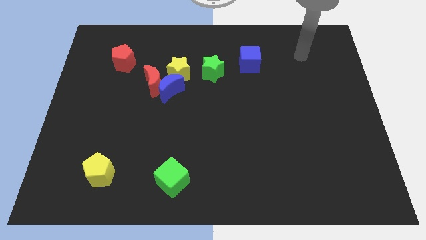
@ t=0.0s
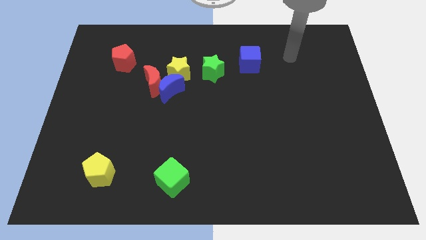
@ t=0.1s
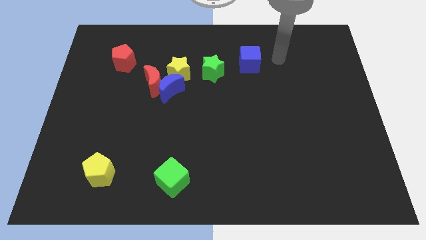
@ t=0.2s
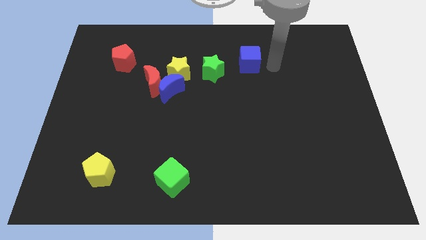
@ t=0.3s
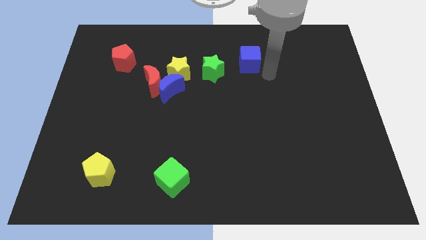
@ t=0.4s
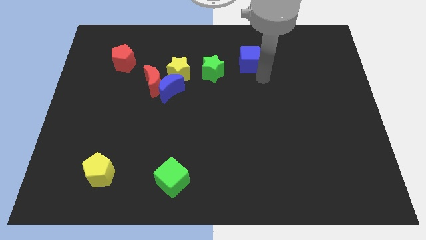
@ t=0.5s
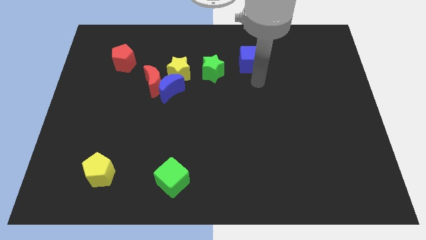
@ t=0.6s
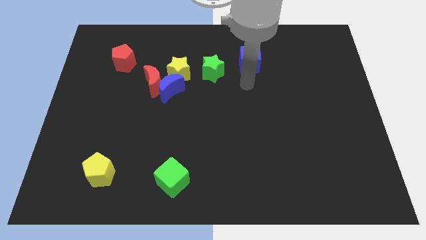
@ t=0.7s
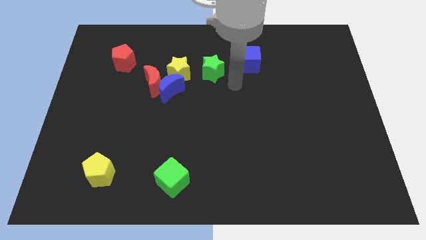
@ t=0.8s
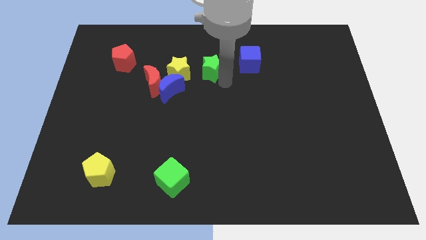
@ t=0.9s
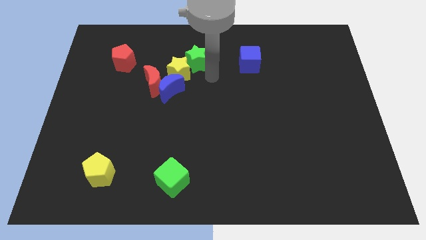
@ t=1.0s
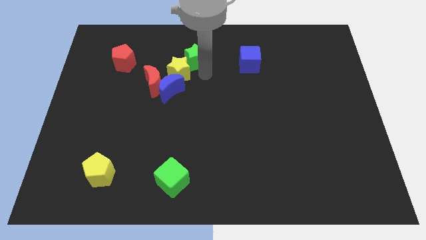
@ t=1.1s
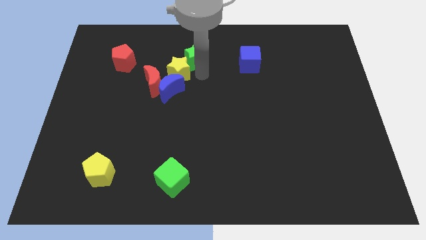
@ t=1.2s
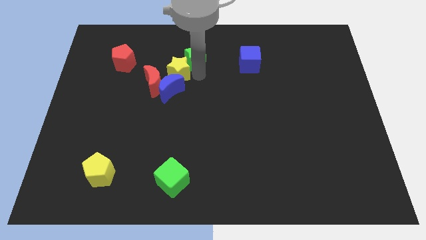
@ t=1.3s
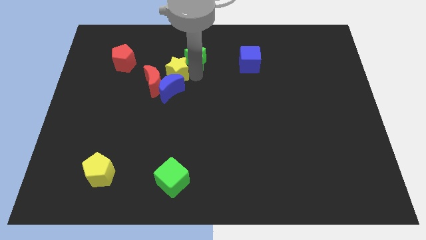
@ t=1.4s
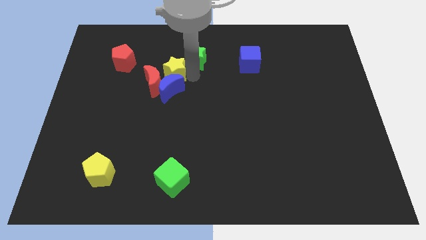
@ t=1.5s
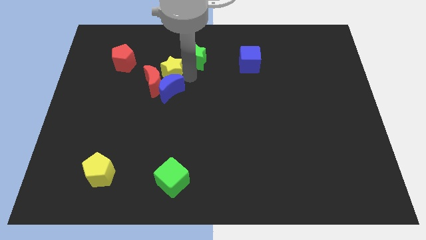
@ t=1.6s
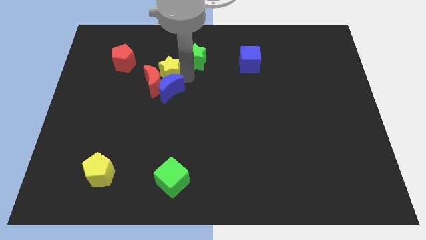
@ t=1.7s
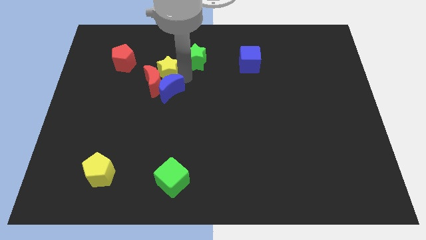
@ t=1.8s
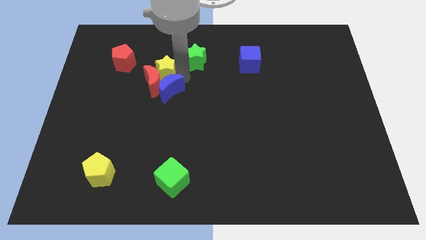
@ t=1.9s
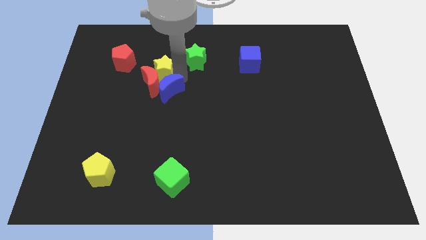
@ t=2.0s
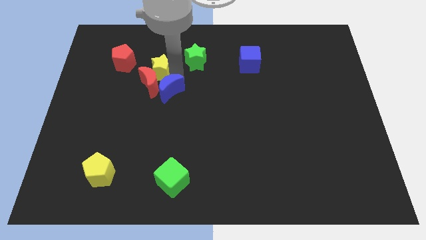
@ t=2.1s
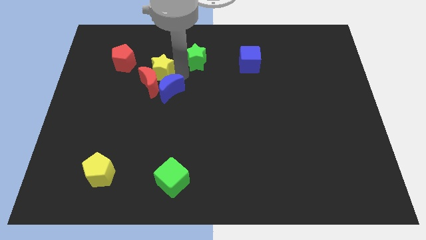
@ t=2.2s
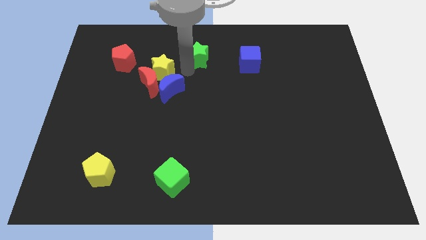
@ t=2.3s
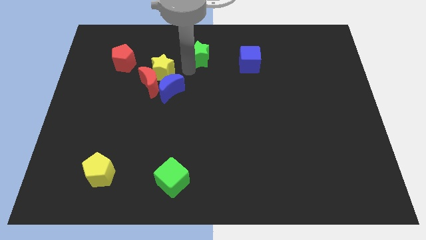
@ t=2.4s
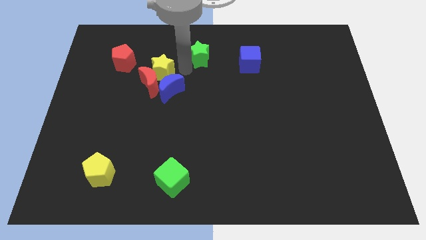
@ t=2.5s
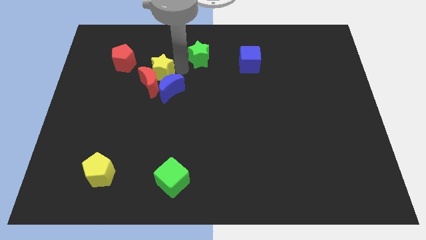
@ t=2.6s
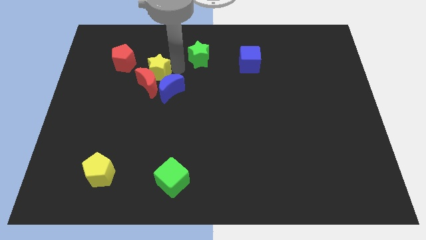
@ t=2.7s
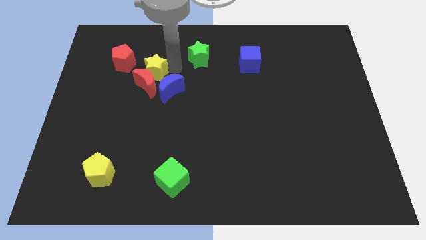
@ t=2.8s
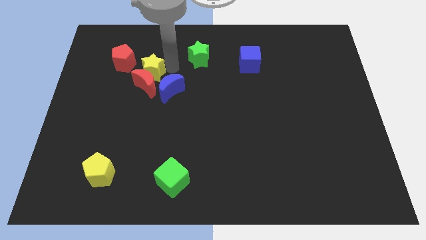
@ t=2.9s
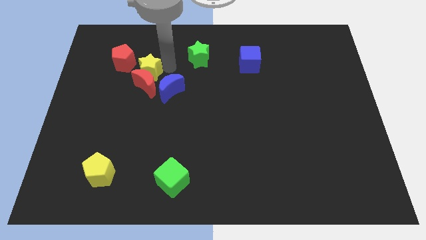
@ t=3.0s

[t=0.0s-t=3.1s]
slightly move the yellow star left

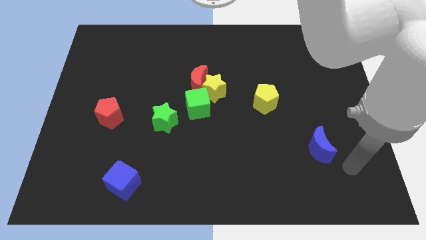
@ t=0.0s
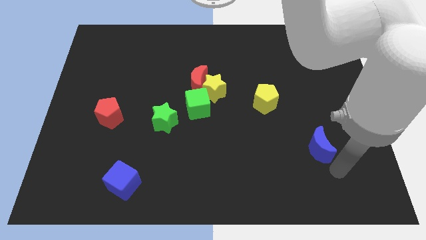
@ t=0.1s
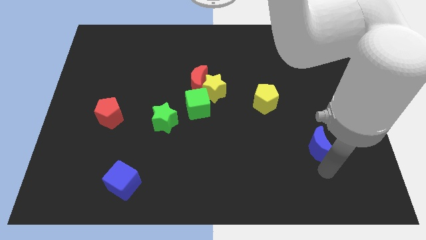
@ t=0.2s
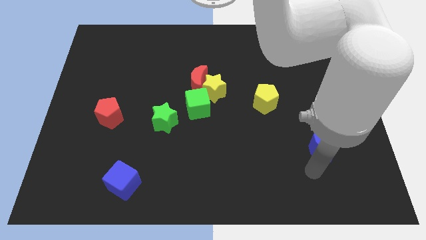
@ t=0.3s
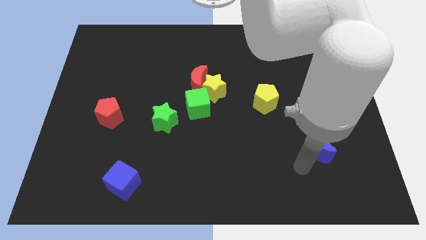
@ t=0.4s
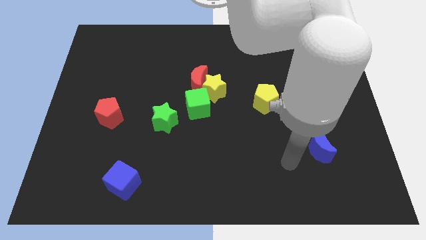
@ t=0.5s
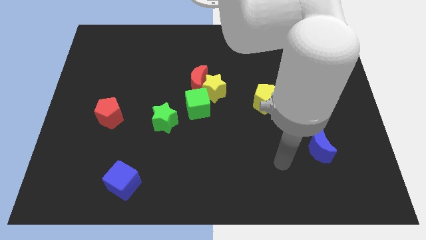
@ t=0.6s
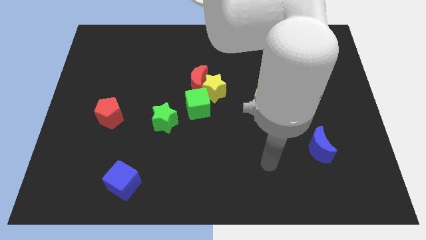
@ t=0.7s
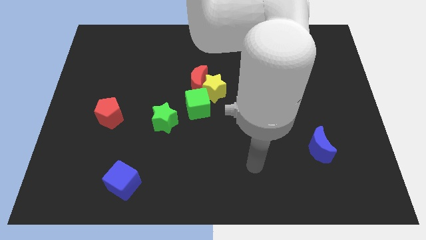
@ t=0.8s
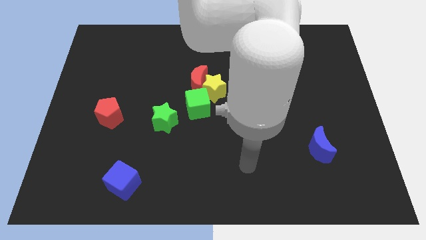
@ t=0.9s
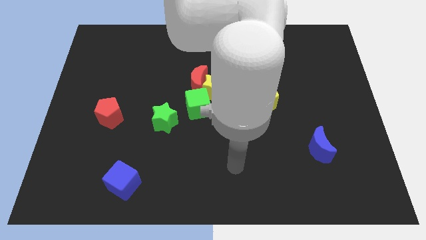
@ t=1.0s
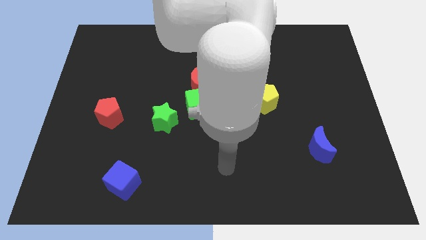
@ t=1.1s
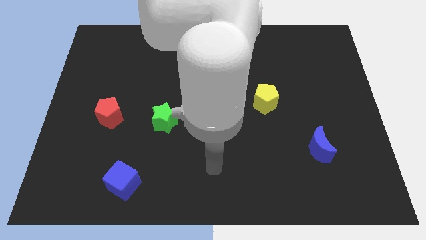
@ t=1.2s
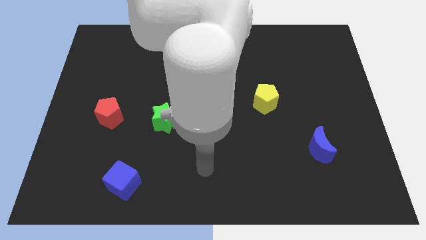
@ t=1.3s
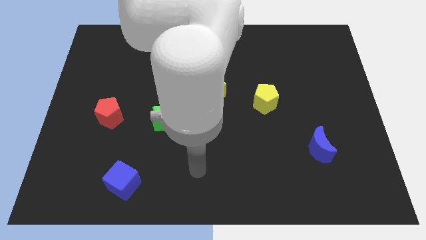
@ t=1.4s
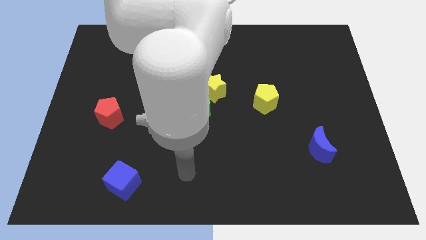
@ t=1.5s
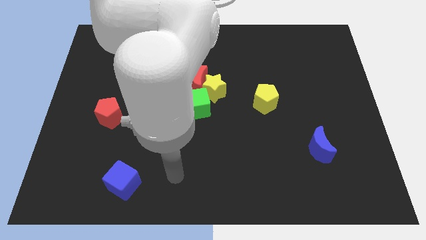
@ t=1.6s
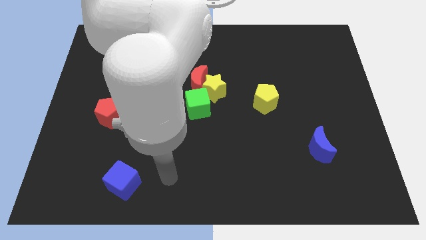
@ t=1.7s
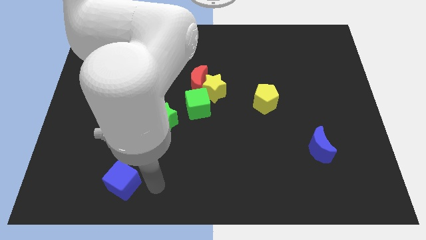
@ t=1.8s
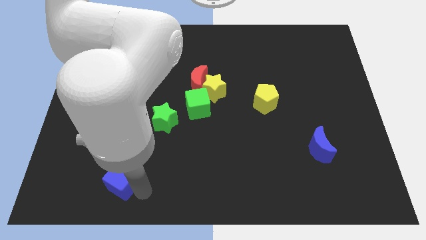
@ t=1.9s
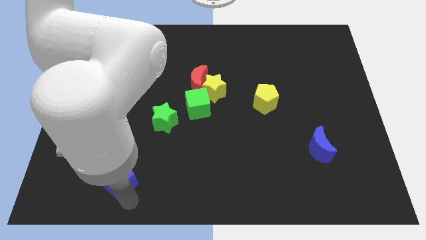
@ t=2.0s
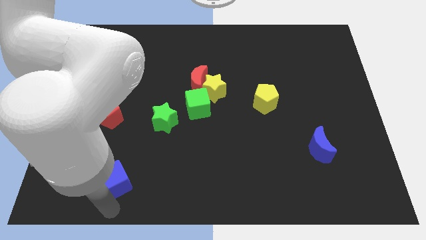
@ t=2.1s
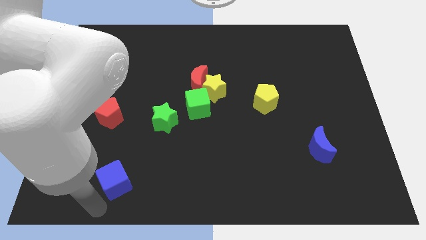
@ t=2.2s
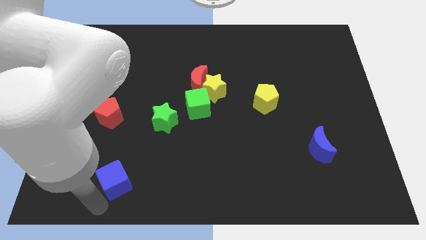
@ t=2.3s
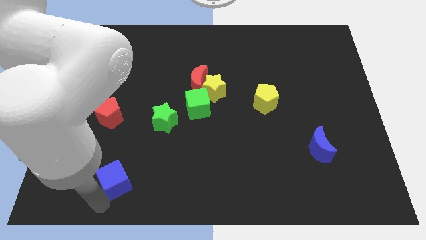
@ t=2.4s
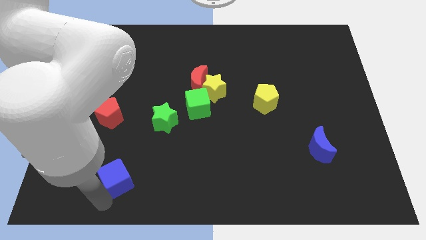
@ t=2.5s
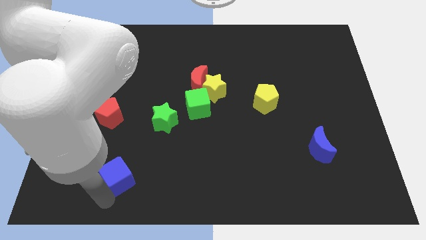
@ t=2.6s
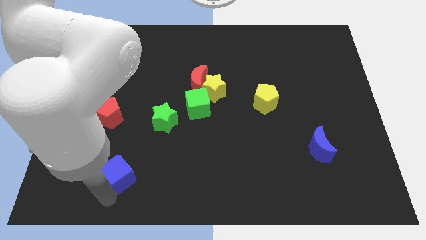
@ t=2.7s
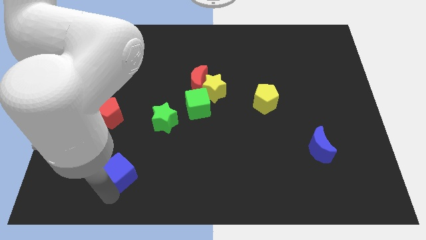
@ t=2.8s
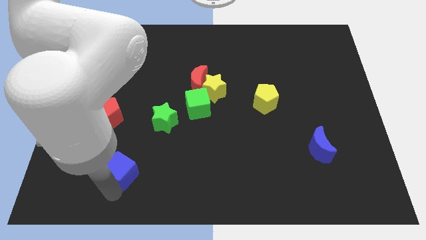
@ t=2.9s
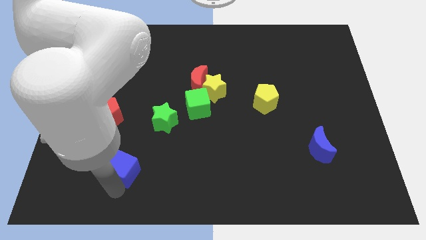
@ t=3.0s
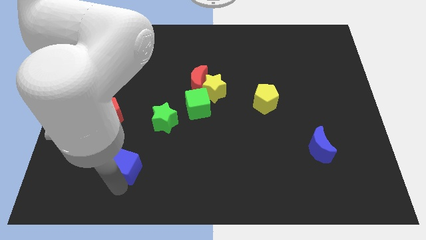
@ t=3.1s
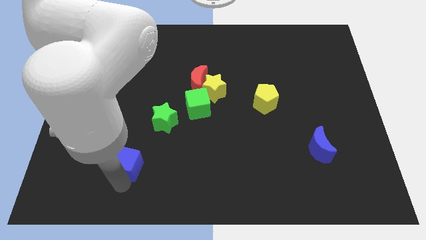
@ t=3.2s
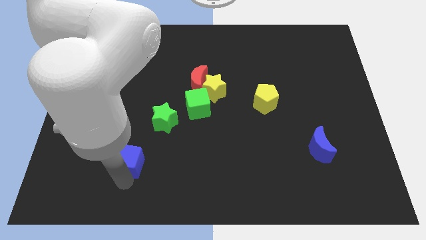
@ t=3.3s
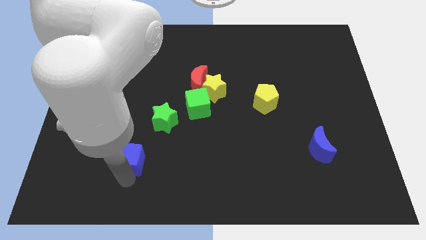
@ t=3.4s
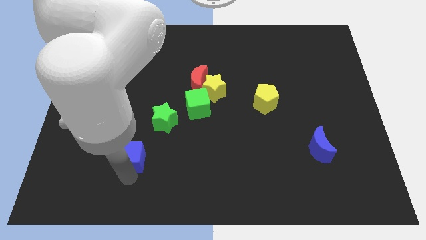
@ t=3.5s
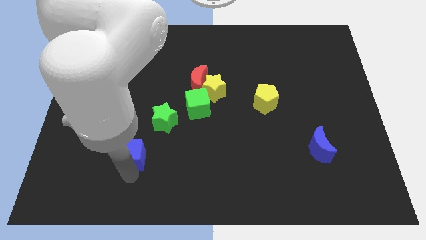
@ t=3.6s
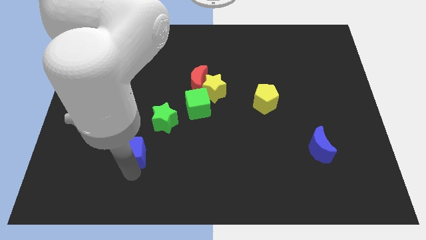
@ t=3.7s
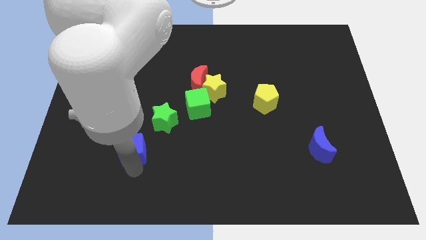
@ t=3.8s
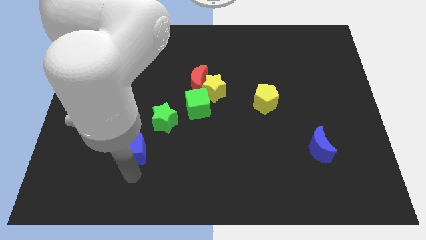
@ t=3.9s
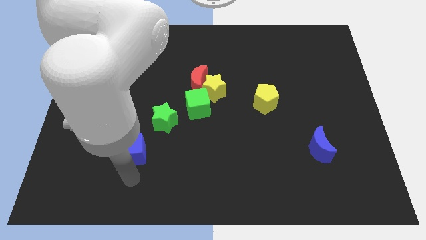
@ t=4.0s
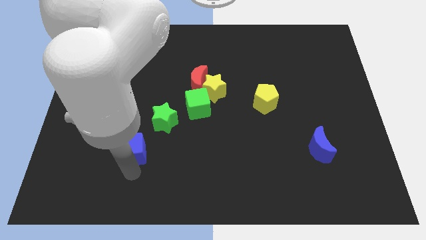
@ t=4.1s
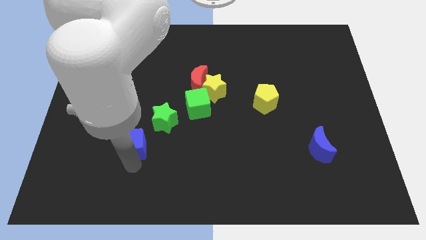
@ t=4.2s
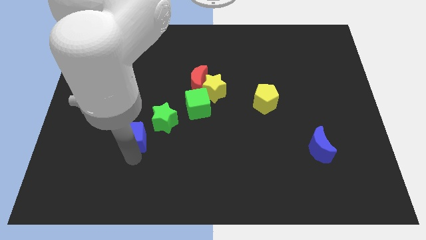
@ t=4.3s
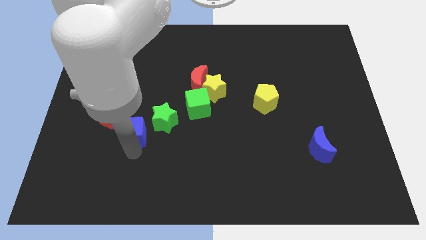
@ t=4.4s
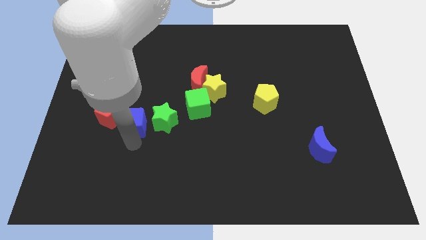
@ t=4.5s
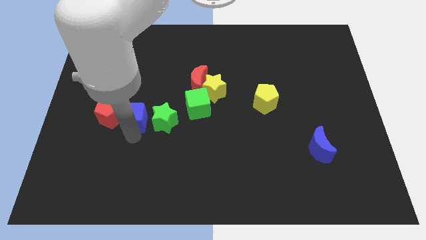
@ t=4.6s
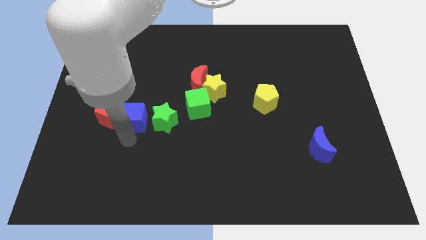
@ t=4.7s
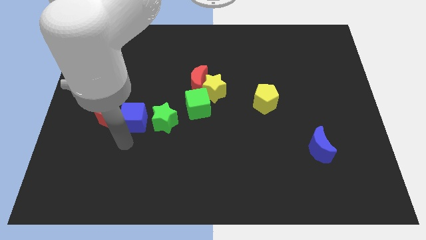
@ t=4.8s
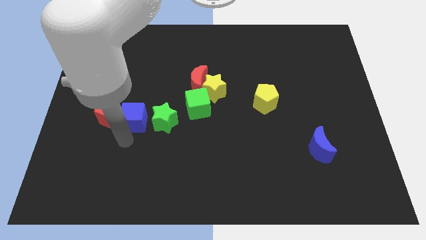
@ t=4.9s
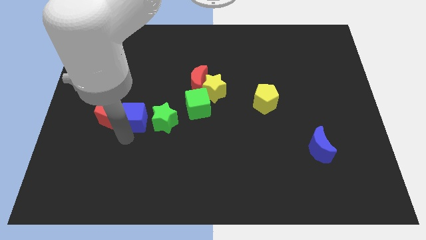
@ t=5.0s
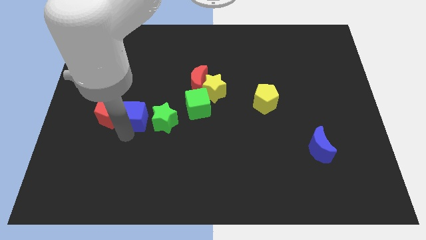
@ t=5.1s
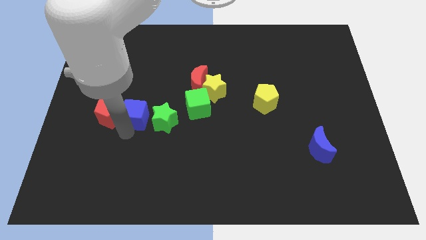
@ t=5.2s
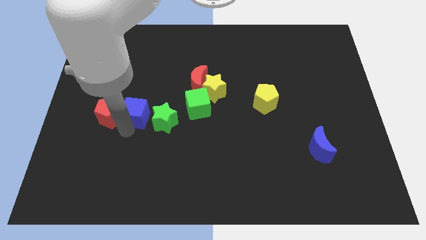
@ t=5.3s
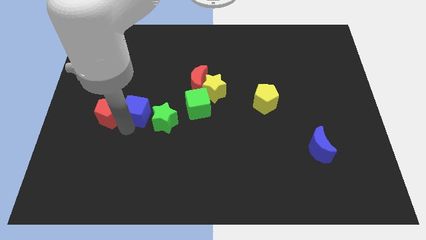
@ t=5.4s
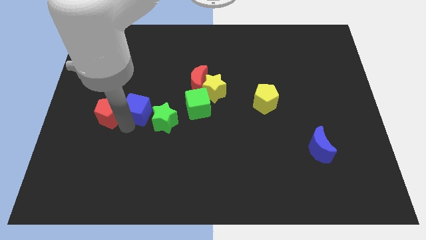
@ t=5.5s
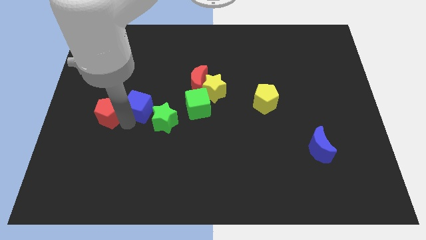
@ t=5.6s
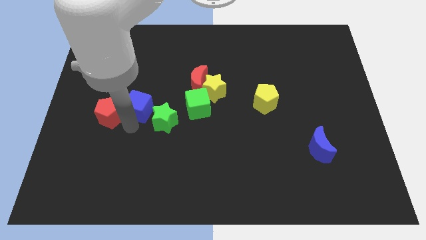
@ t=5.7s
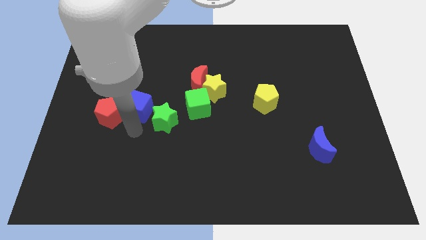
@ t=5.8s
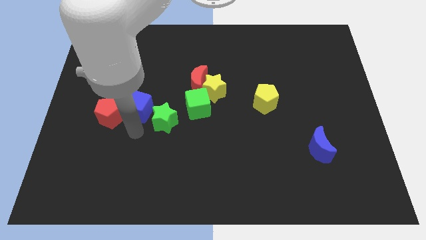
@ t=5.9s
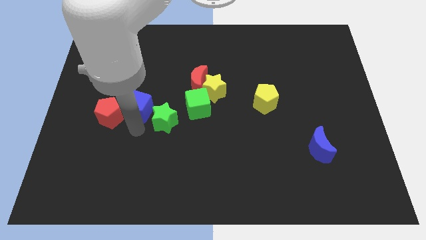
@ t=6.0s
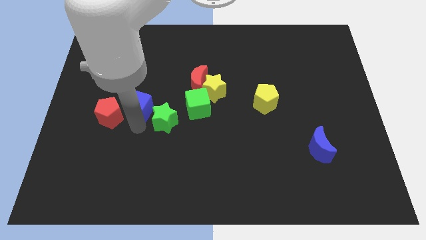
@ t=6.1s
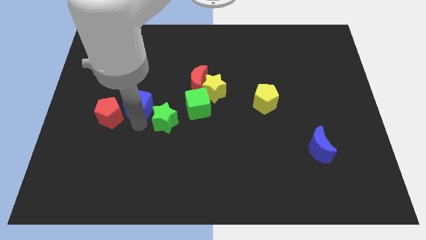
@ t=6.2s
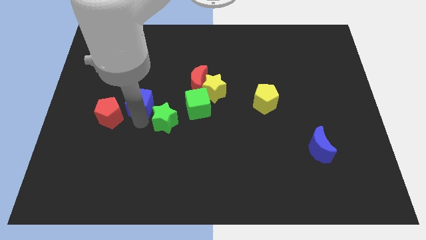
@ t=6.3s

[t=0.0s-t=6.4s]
push the blue cube up
